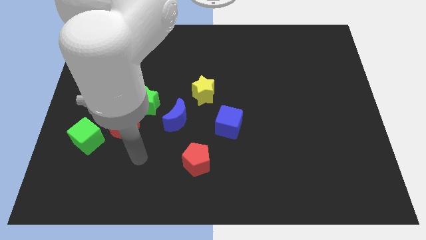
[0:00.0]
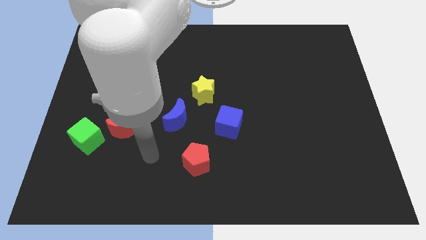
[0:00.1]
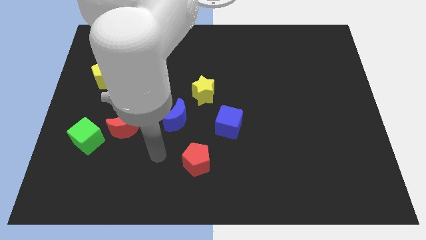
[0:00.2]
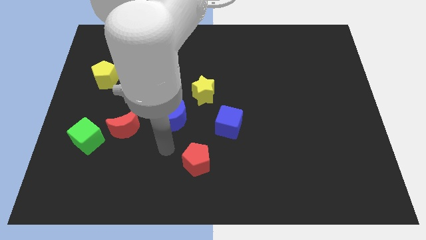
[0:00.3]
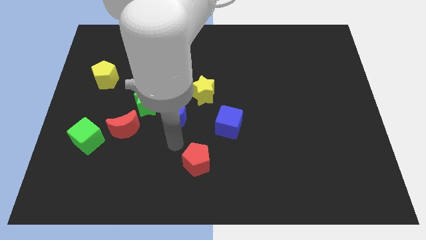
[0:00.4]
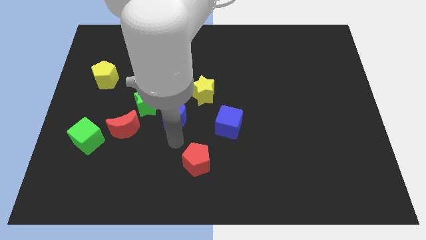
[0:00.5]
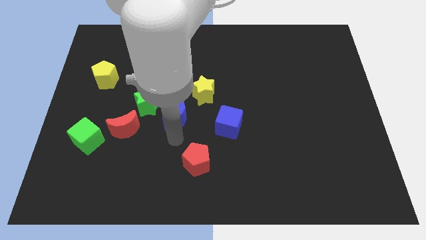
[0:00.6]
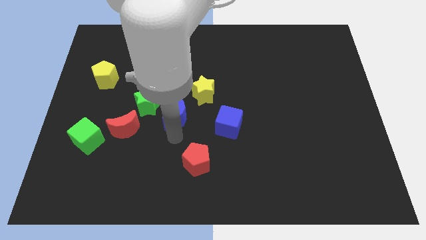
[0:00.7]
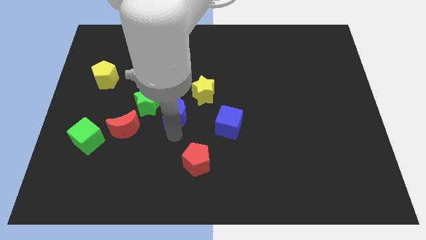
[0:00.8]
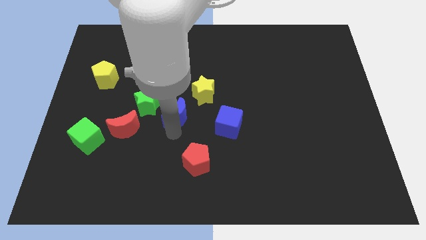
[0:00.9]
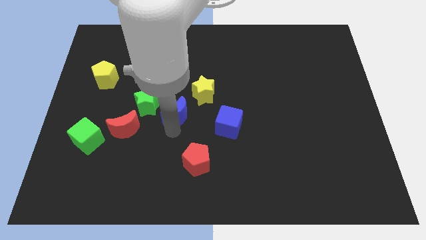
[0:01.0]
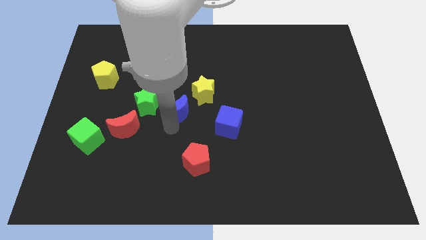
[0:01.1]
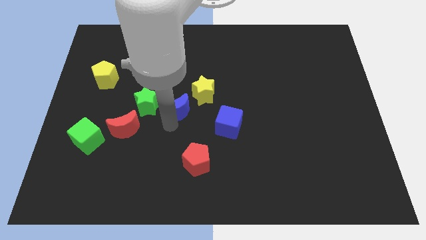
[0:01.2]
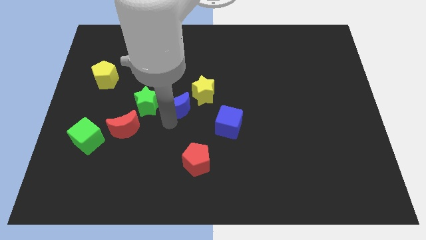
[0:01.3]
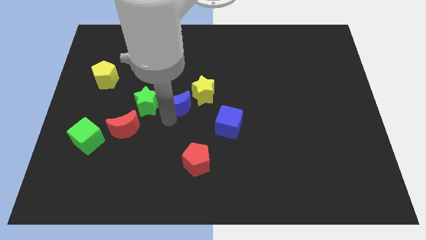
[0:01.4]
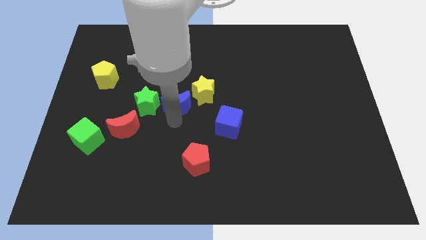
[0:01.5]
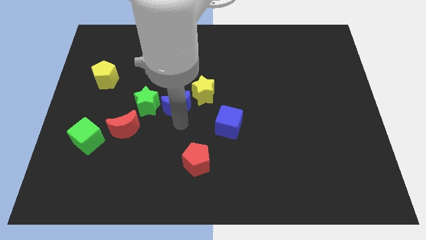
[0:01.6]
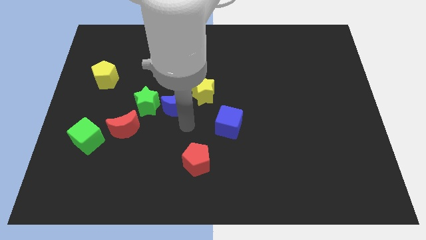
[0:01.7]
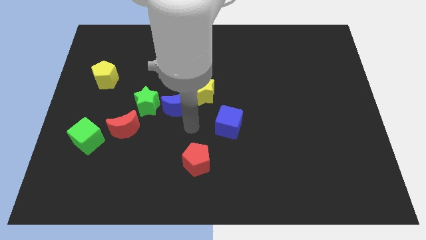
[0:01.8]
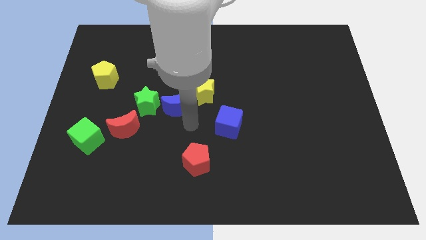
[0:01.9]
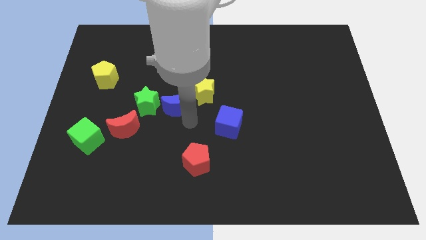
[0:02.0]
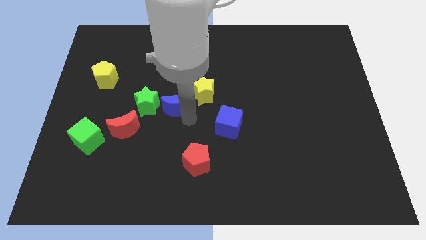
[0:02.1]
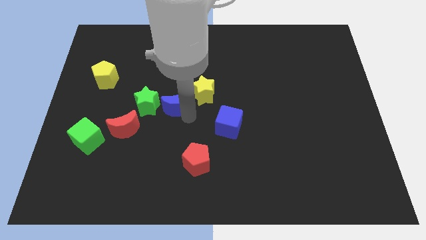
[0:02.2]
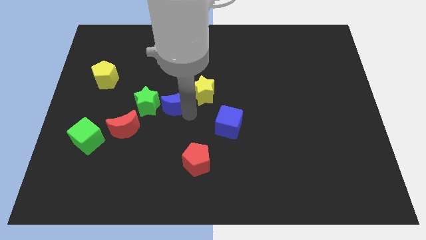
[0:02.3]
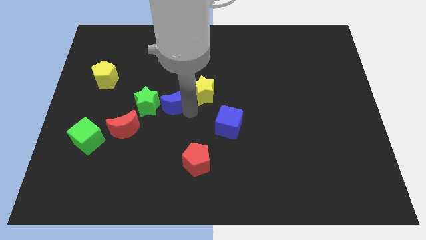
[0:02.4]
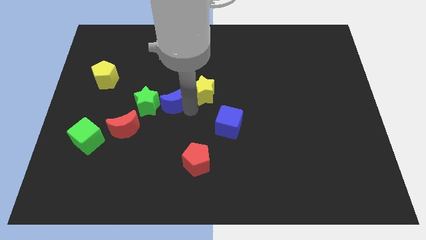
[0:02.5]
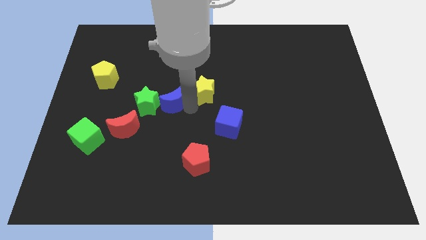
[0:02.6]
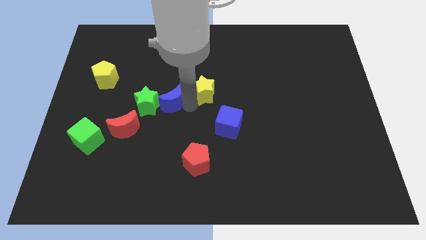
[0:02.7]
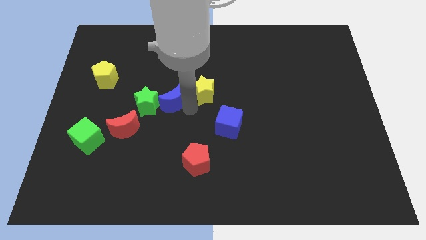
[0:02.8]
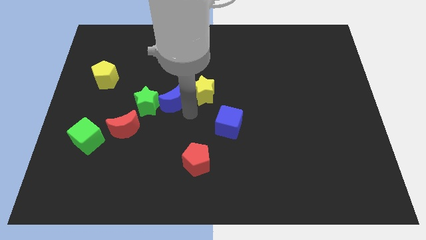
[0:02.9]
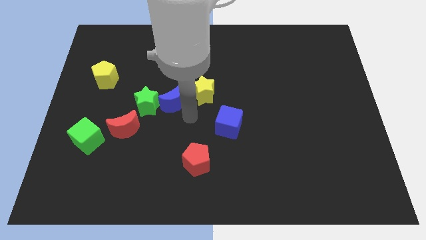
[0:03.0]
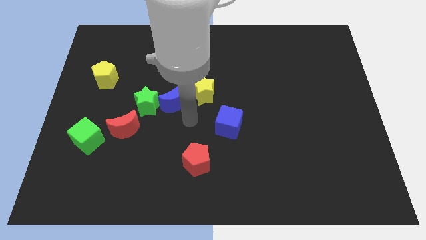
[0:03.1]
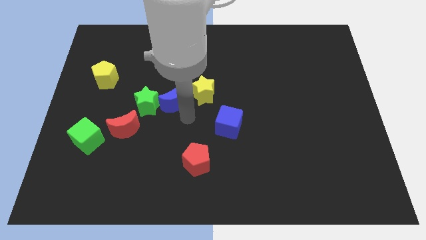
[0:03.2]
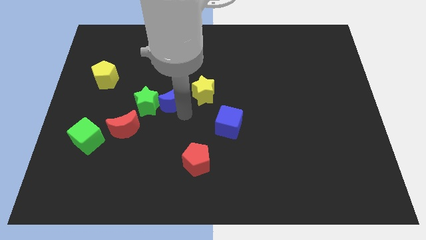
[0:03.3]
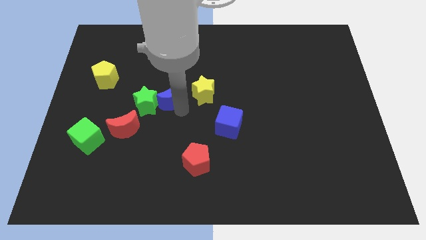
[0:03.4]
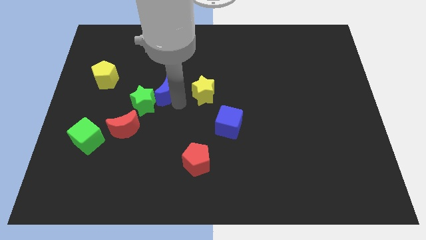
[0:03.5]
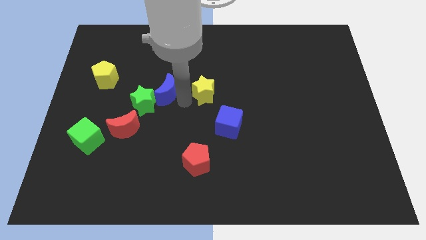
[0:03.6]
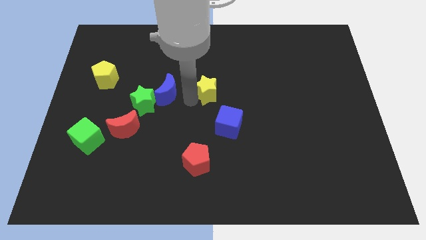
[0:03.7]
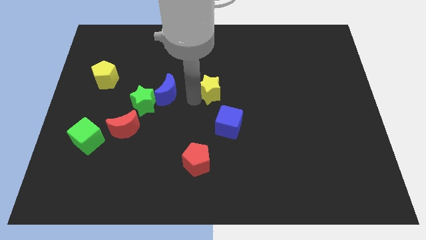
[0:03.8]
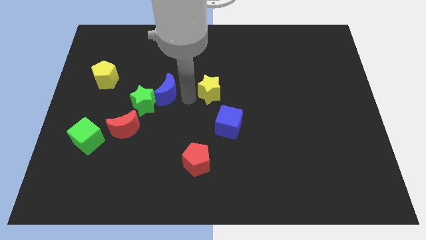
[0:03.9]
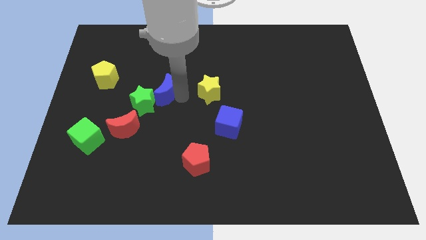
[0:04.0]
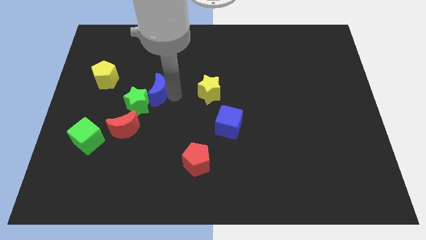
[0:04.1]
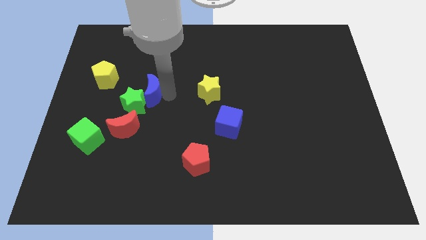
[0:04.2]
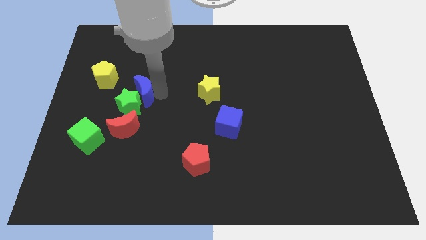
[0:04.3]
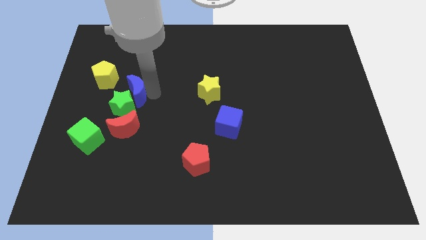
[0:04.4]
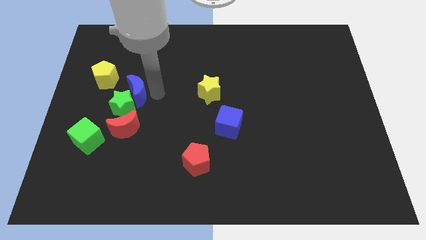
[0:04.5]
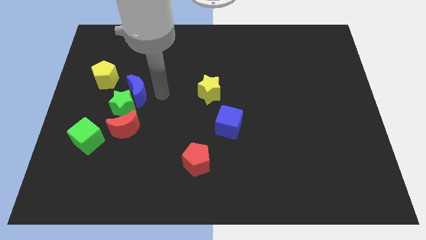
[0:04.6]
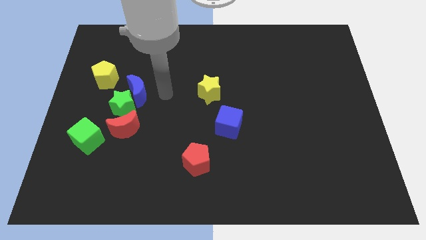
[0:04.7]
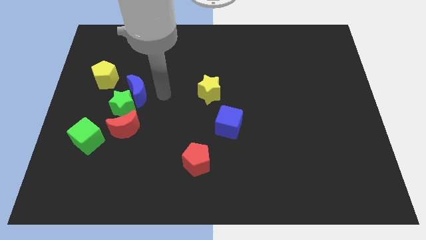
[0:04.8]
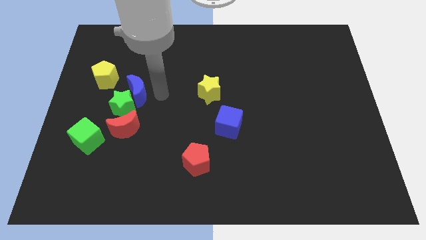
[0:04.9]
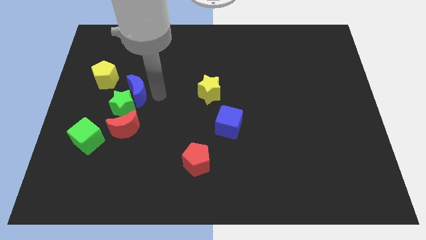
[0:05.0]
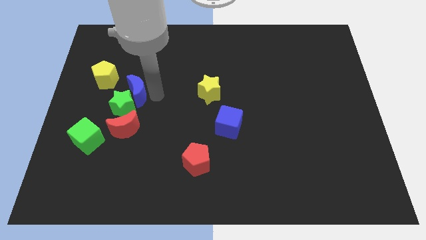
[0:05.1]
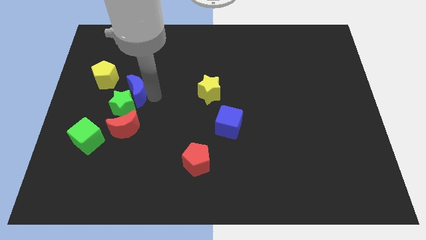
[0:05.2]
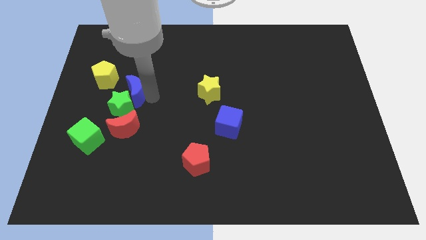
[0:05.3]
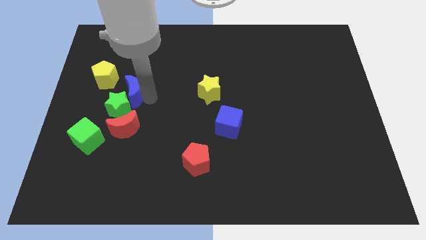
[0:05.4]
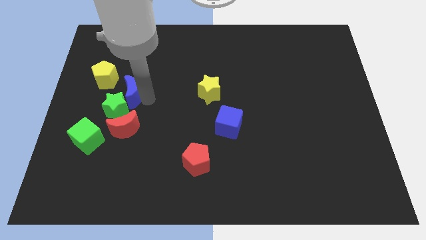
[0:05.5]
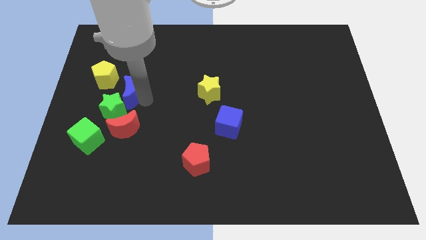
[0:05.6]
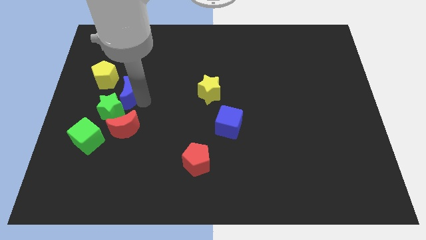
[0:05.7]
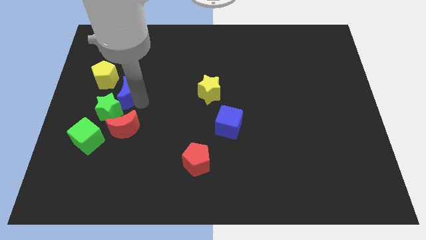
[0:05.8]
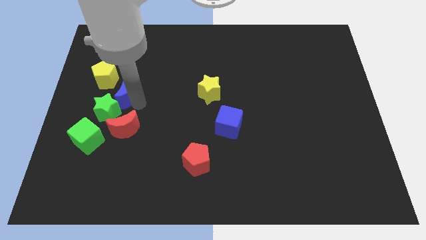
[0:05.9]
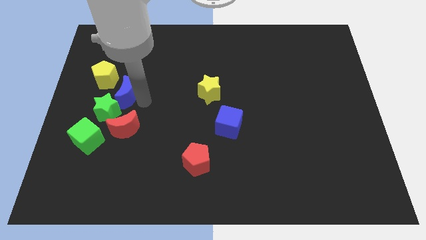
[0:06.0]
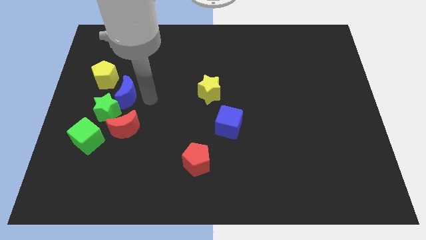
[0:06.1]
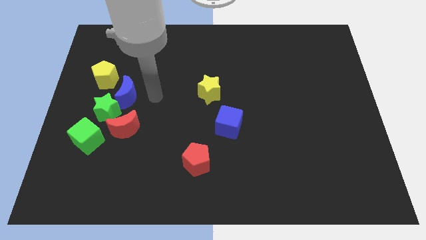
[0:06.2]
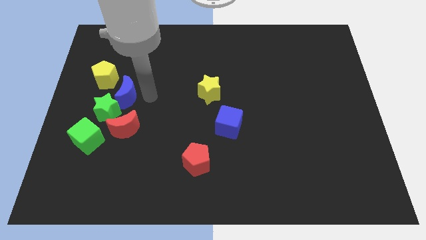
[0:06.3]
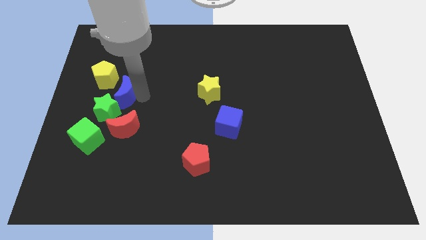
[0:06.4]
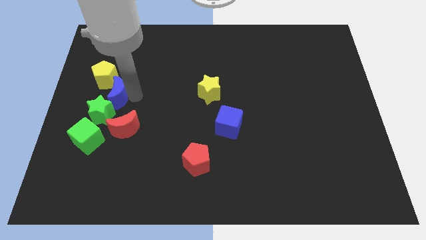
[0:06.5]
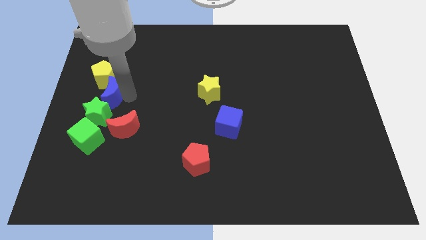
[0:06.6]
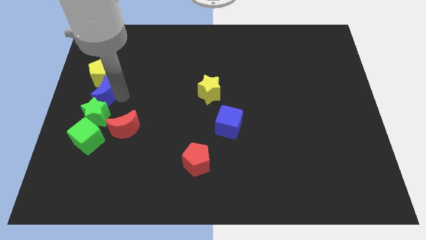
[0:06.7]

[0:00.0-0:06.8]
push the blue moon to the center left

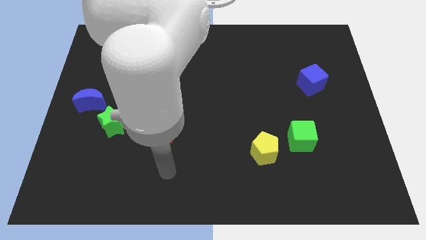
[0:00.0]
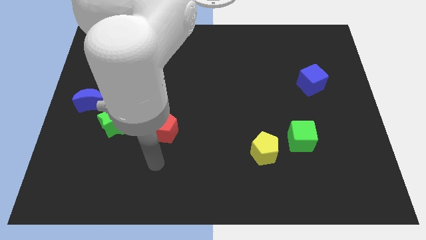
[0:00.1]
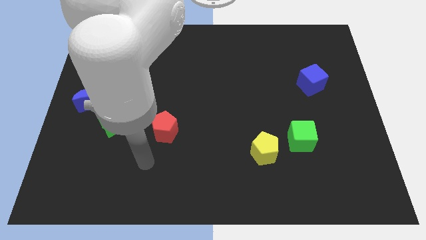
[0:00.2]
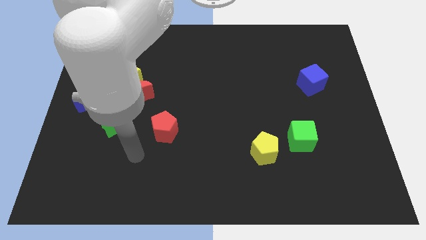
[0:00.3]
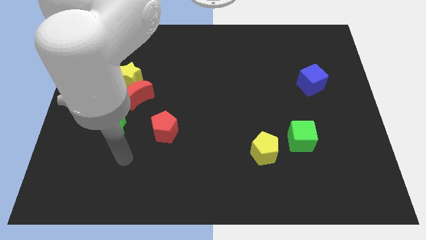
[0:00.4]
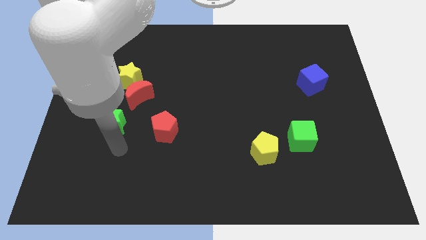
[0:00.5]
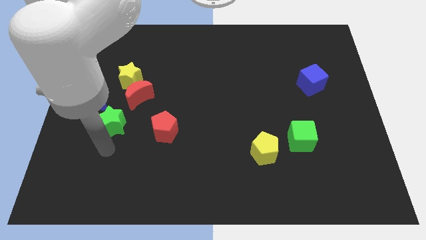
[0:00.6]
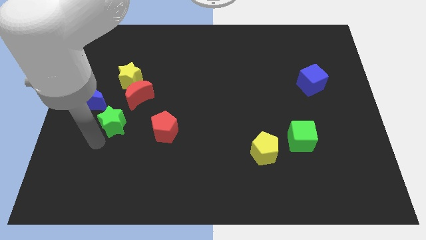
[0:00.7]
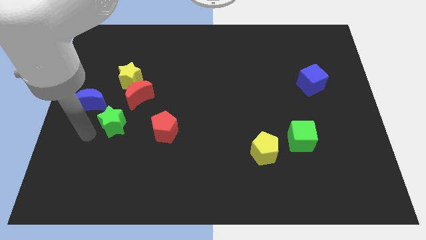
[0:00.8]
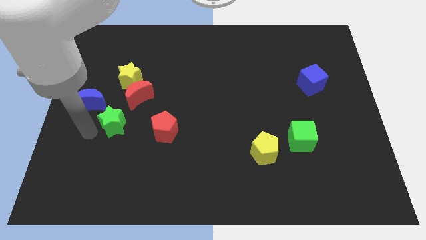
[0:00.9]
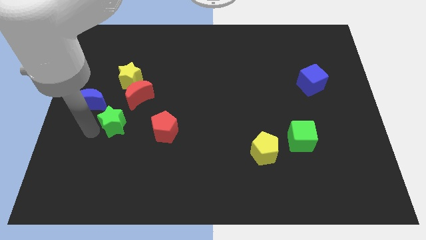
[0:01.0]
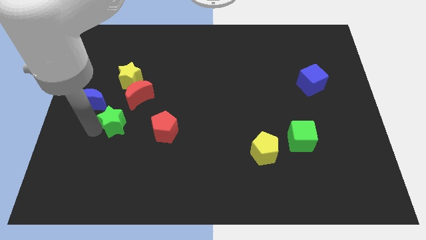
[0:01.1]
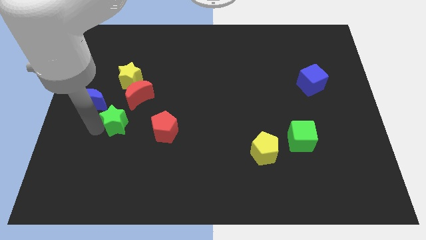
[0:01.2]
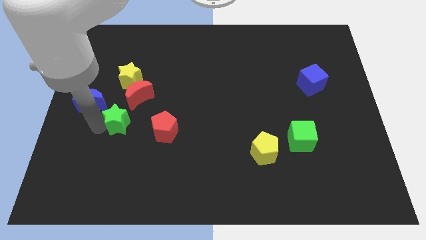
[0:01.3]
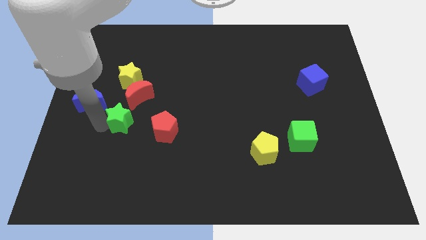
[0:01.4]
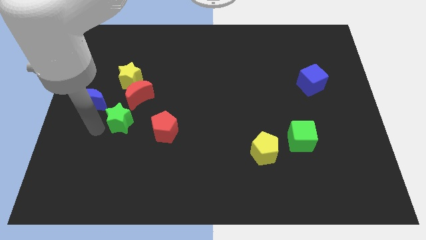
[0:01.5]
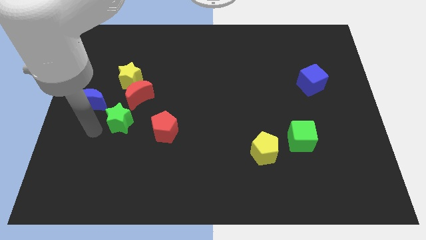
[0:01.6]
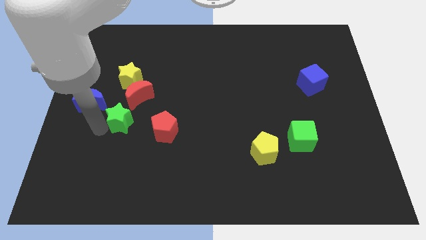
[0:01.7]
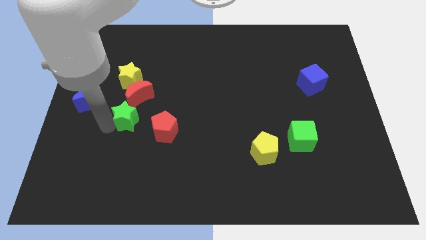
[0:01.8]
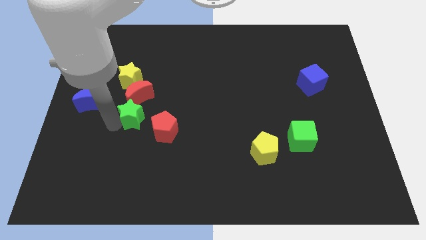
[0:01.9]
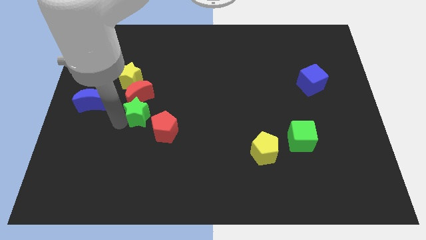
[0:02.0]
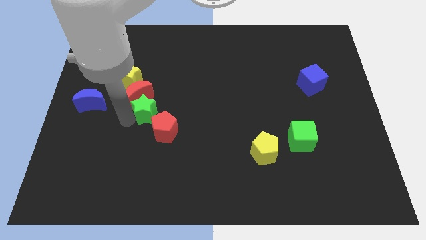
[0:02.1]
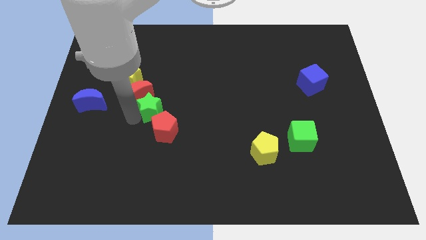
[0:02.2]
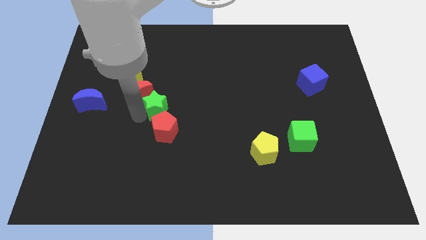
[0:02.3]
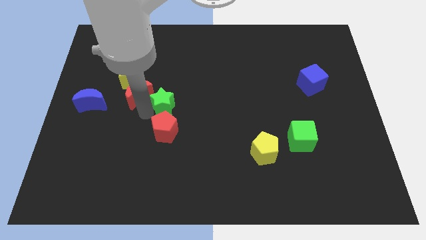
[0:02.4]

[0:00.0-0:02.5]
move the green star to the middle
